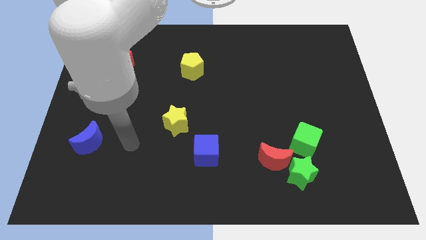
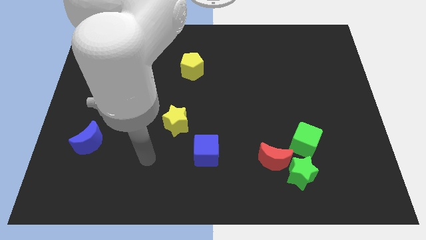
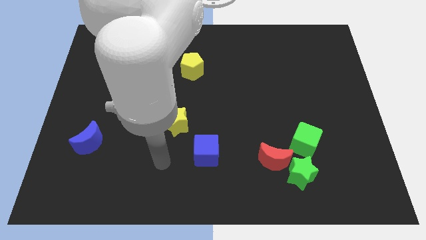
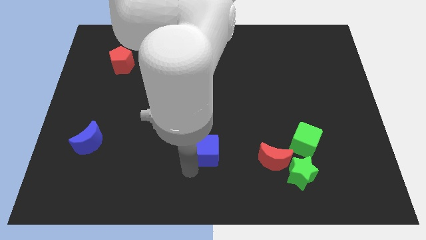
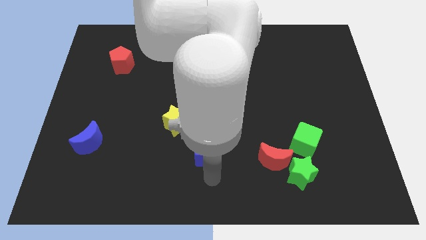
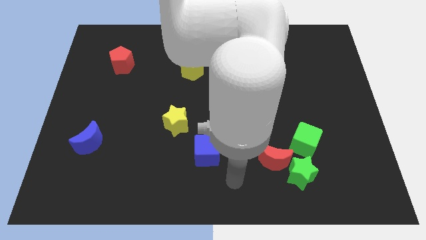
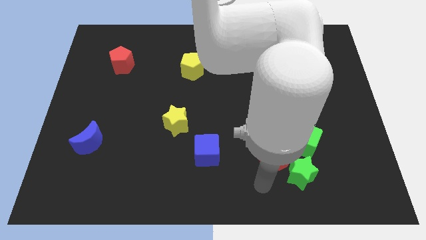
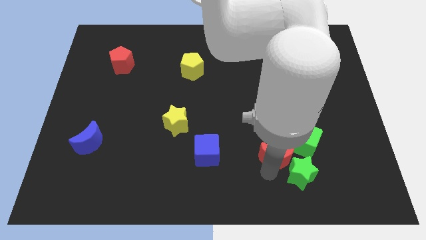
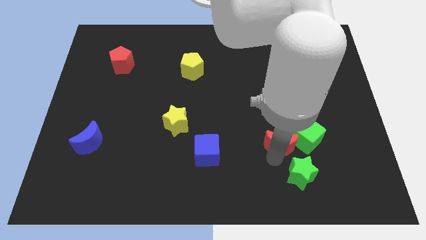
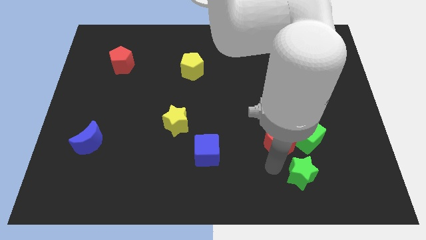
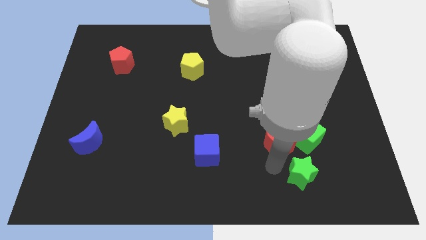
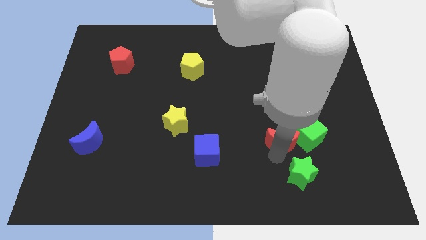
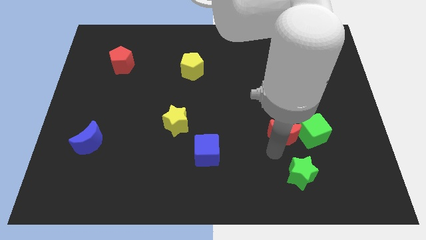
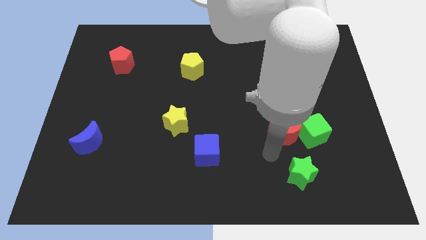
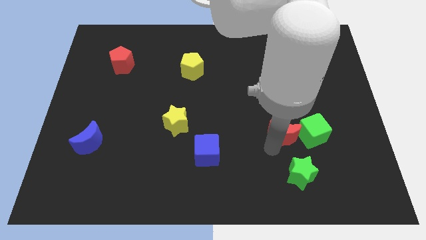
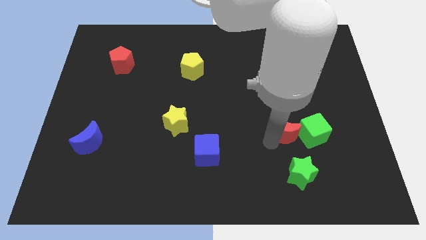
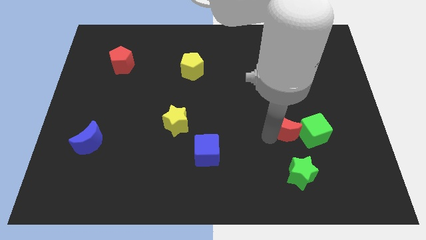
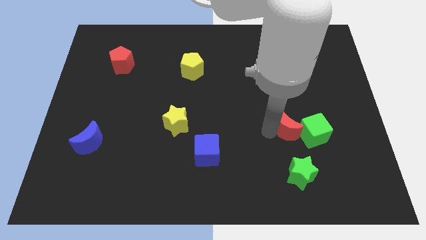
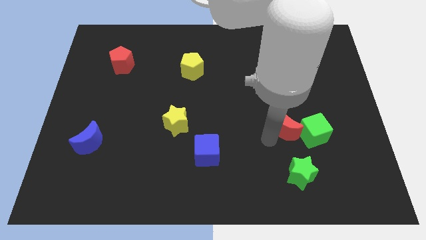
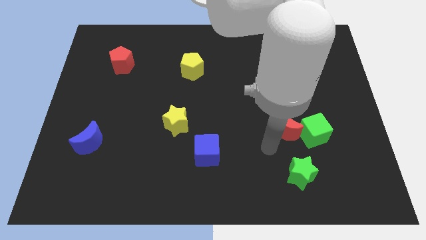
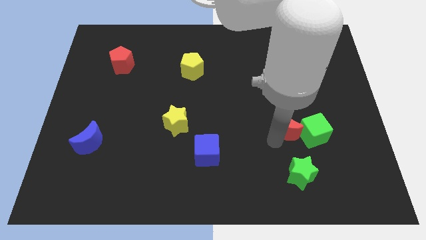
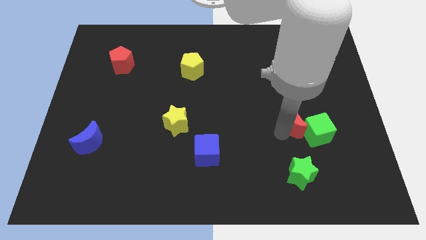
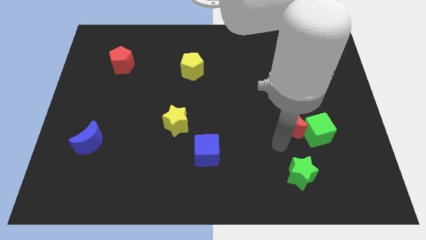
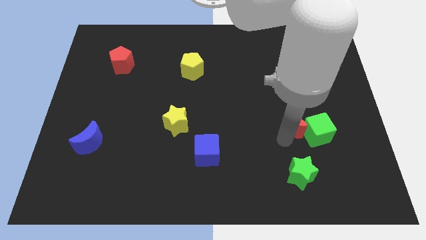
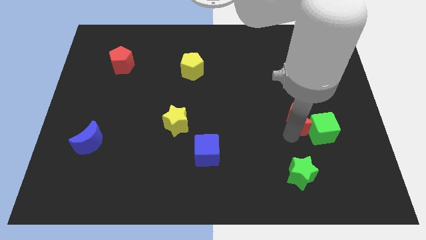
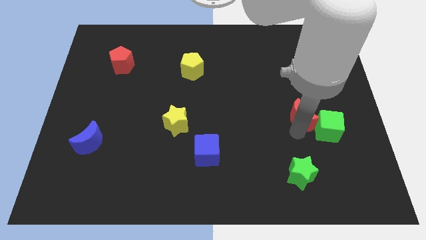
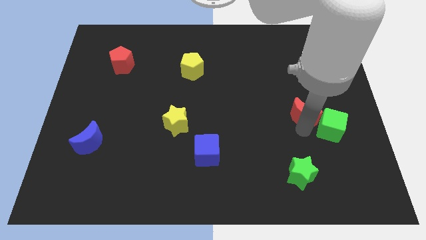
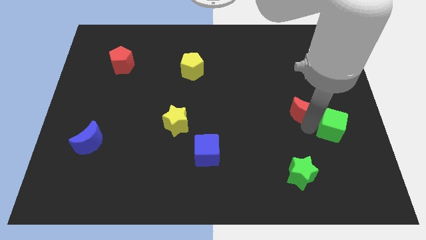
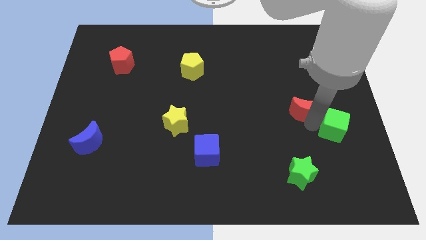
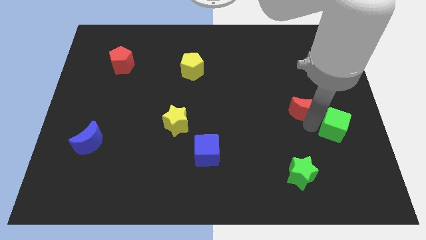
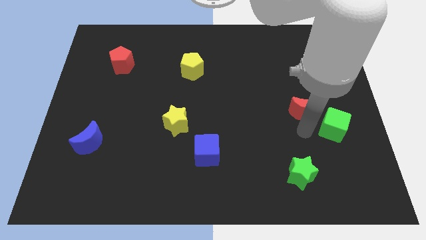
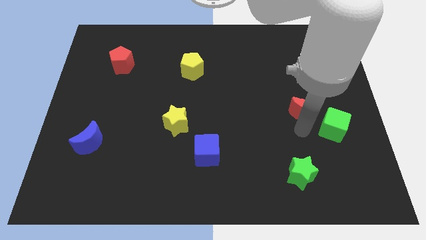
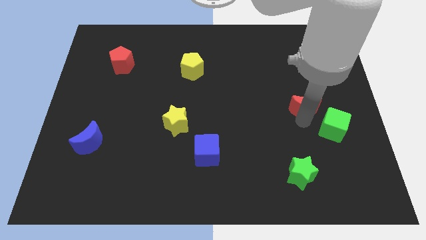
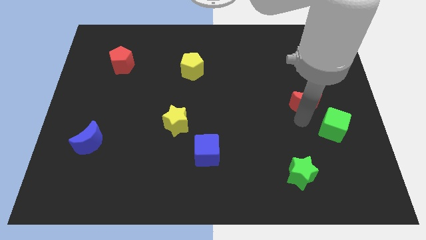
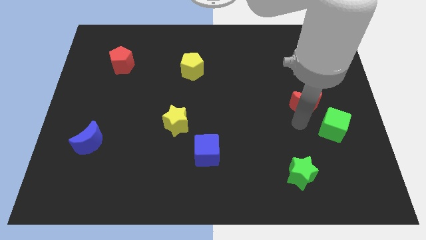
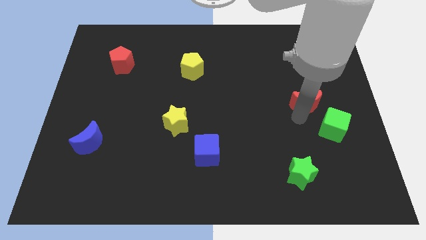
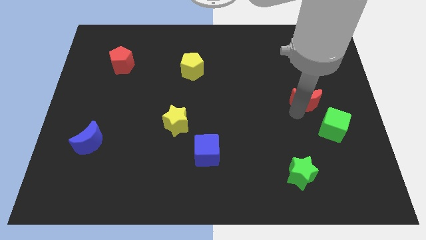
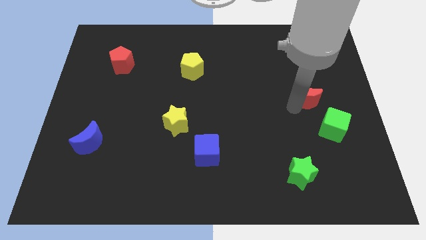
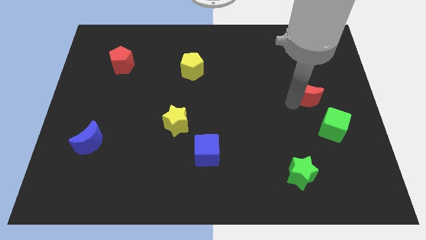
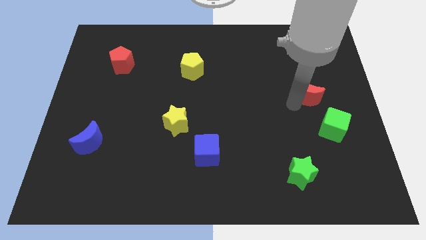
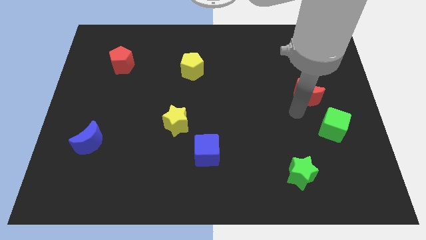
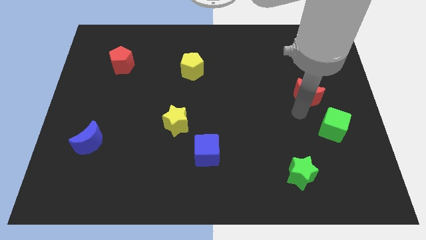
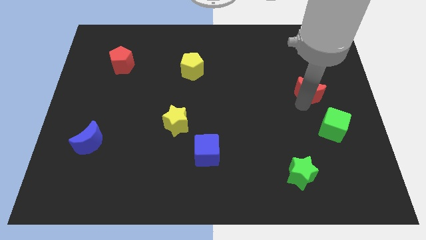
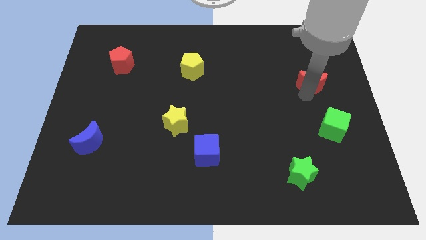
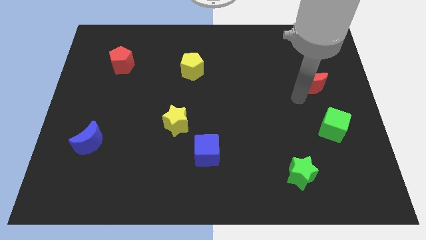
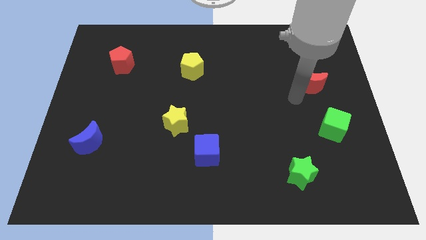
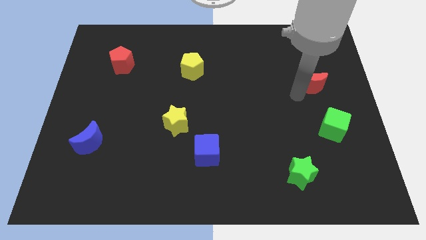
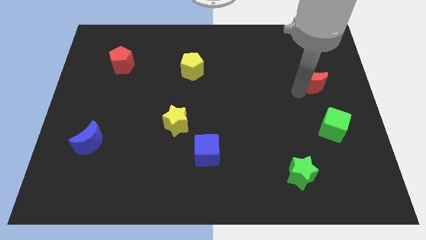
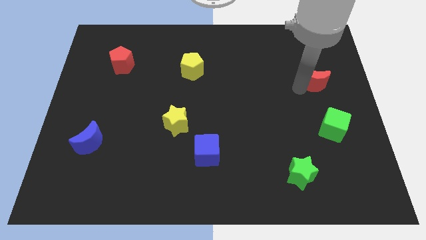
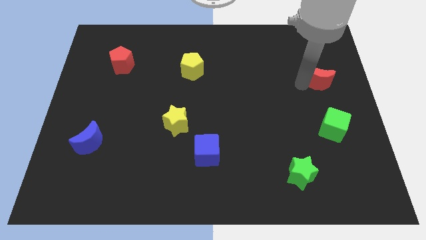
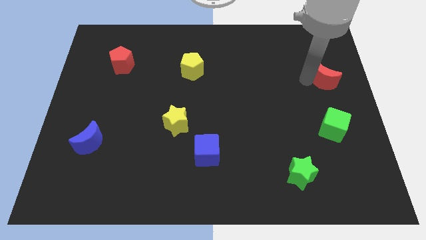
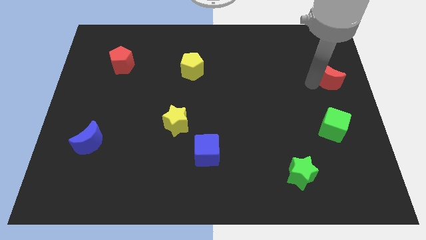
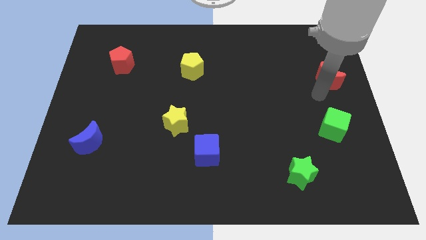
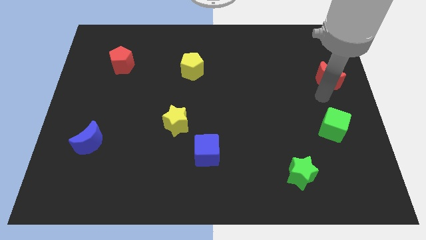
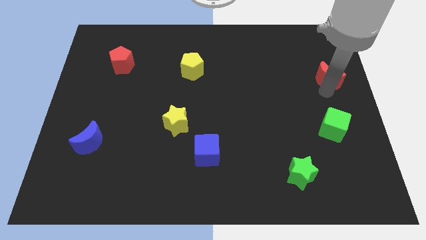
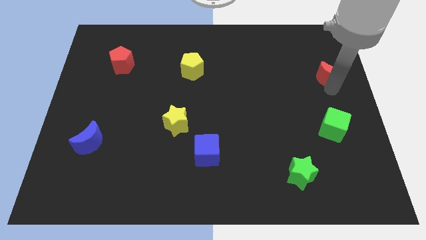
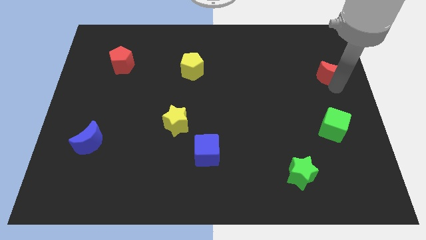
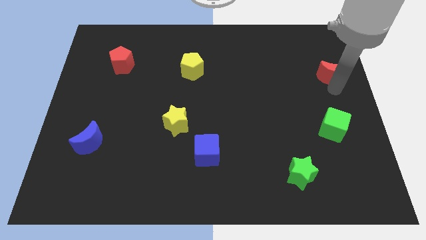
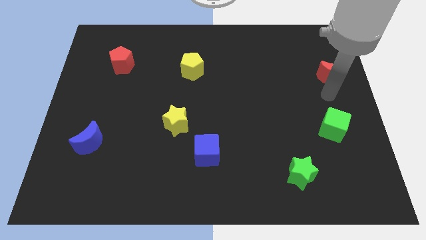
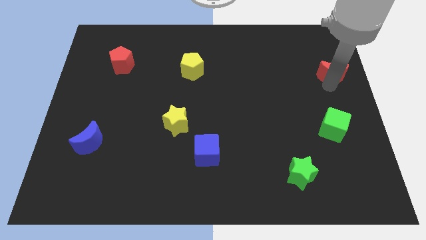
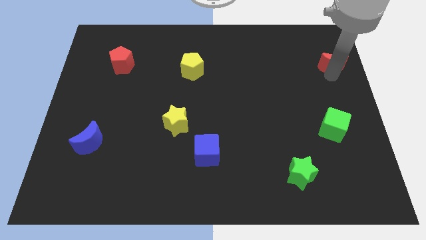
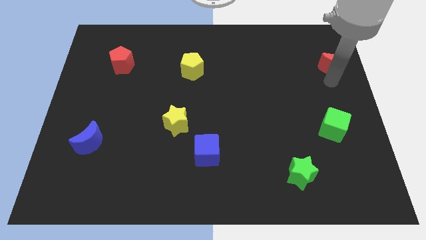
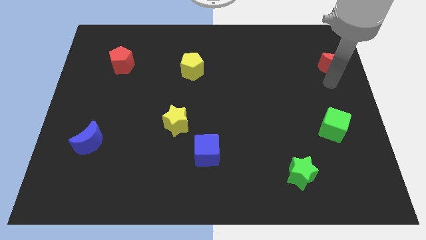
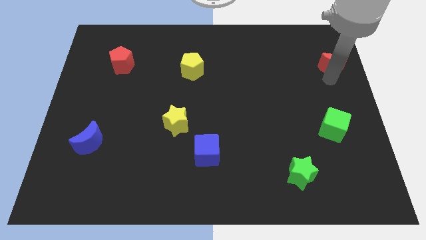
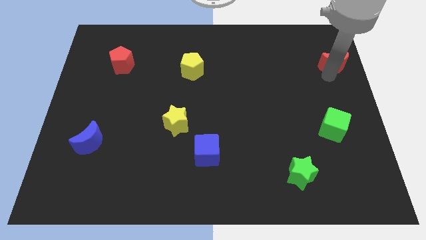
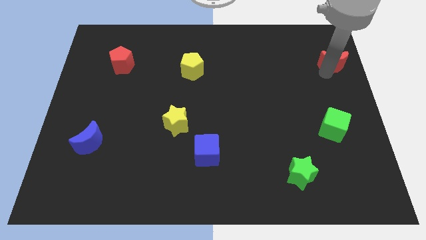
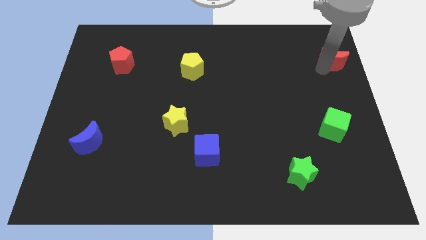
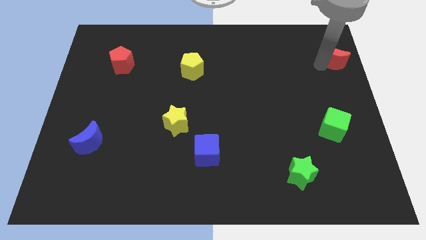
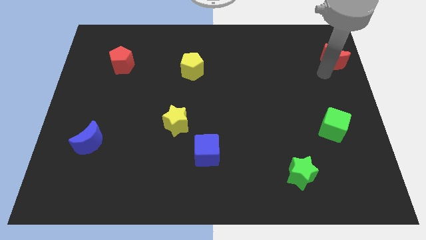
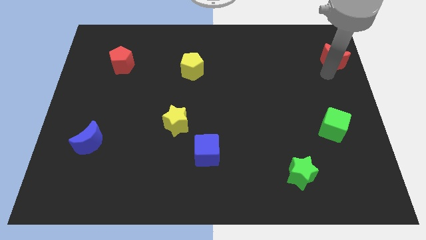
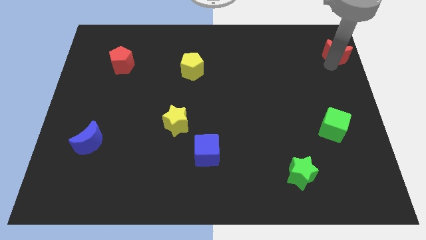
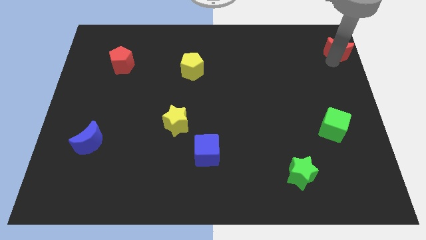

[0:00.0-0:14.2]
move the red moon to the top right of the board
